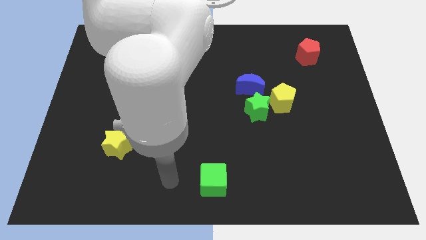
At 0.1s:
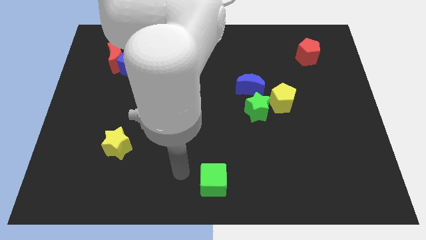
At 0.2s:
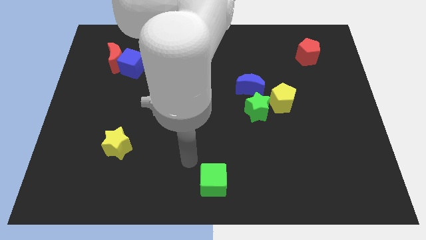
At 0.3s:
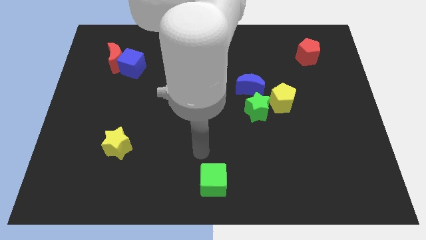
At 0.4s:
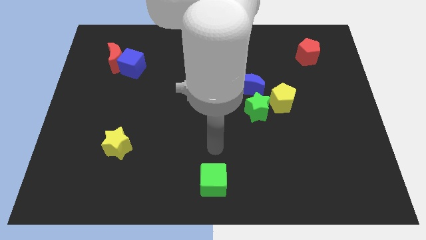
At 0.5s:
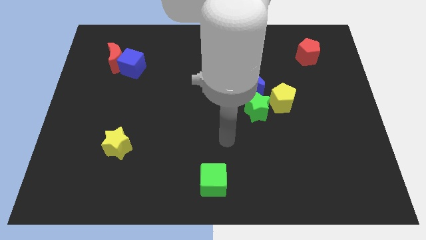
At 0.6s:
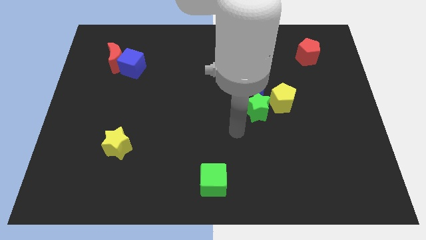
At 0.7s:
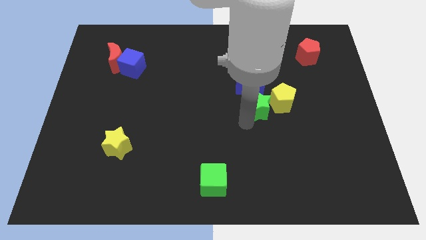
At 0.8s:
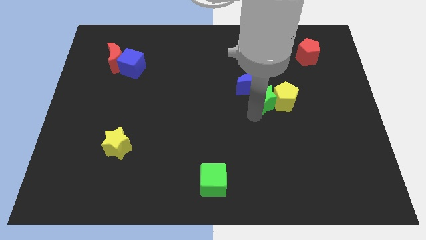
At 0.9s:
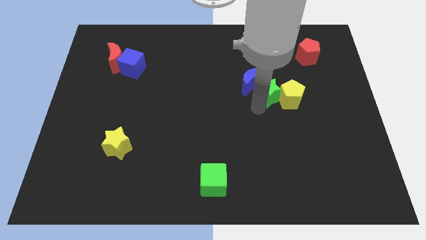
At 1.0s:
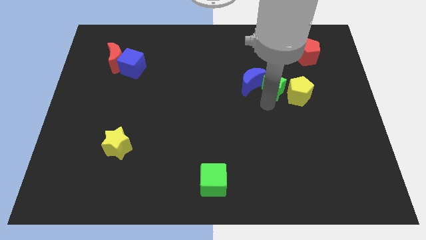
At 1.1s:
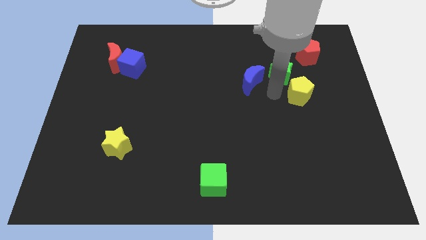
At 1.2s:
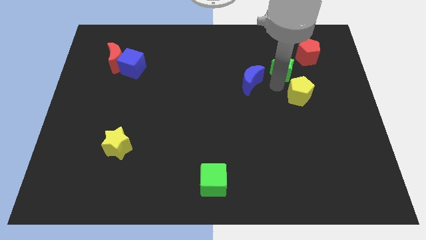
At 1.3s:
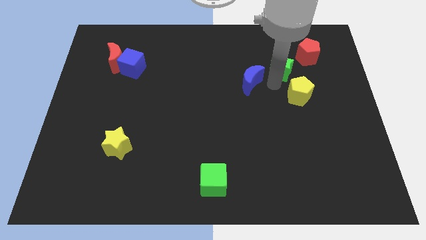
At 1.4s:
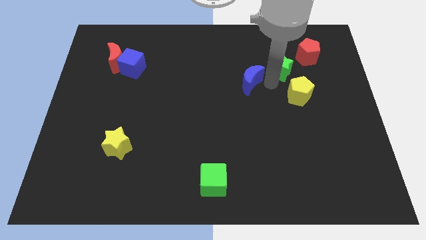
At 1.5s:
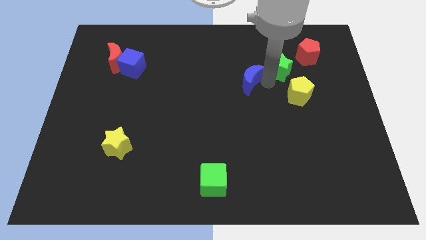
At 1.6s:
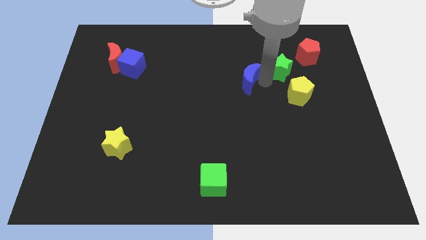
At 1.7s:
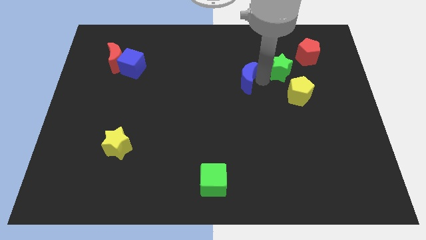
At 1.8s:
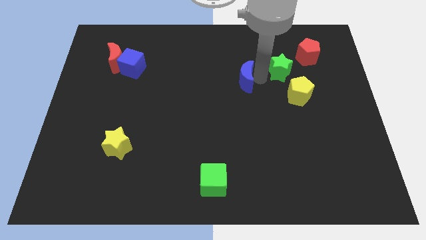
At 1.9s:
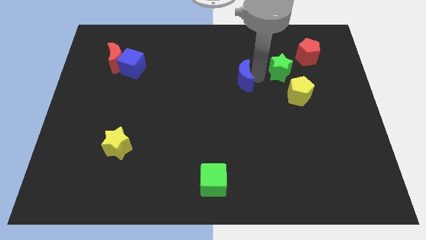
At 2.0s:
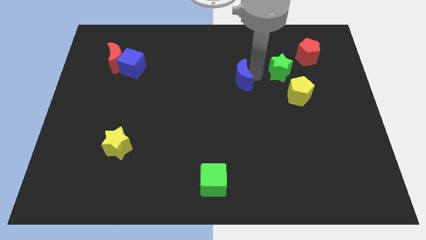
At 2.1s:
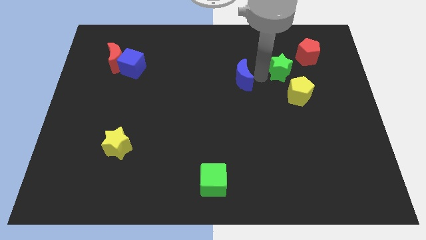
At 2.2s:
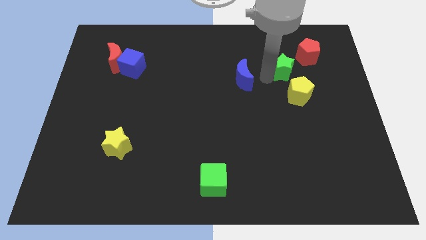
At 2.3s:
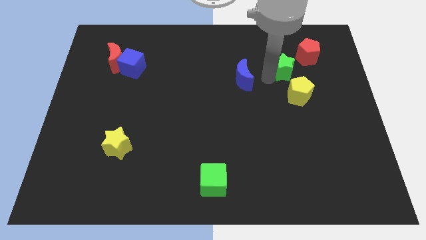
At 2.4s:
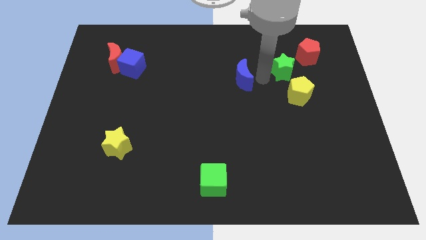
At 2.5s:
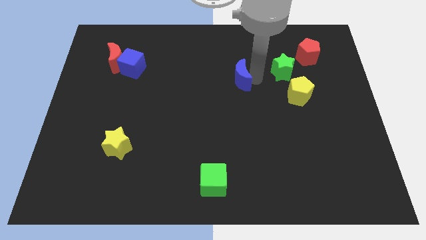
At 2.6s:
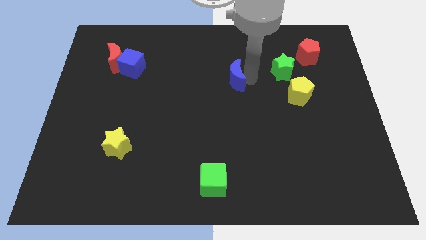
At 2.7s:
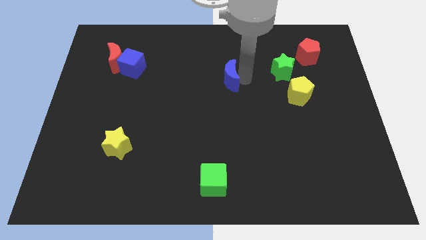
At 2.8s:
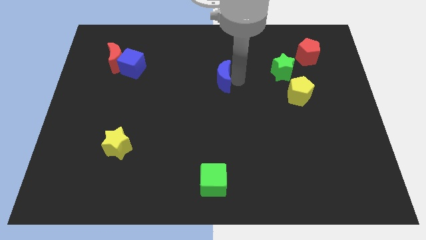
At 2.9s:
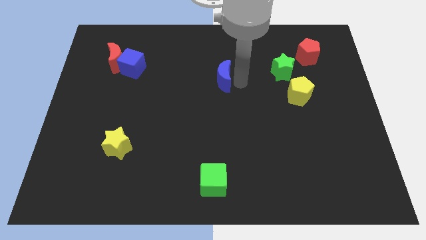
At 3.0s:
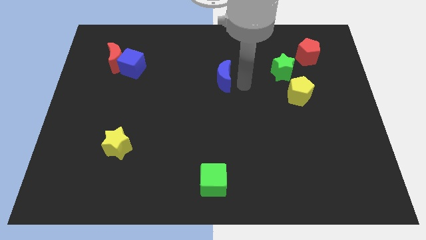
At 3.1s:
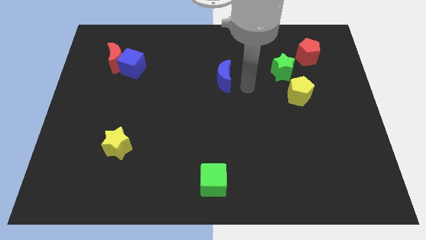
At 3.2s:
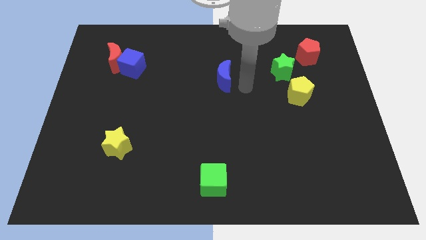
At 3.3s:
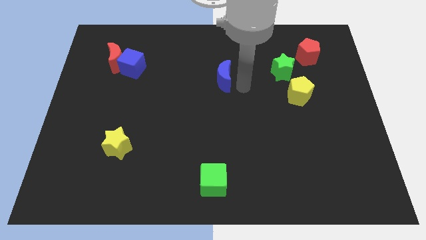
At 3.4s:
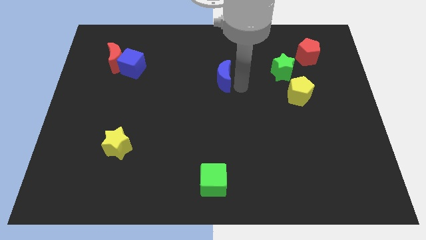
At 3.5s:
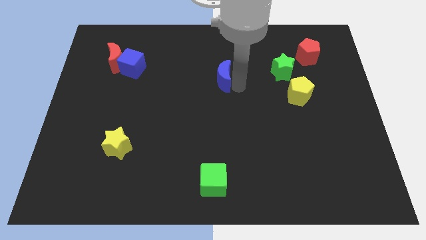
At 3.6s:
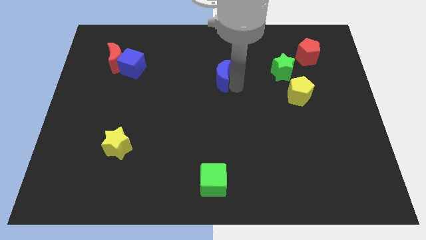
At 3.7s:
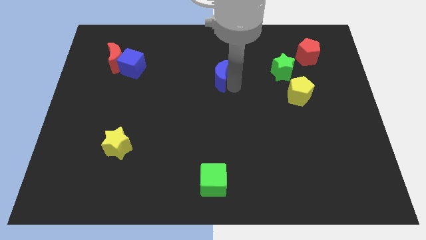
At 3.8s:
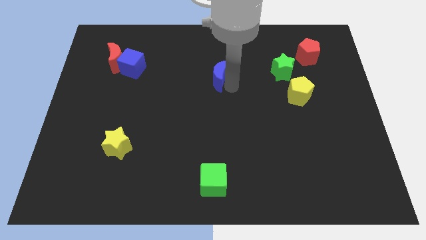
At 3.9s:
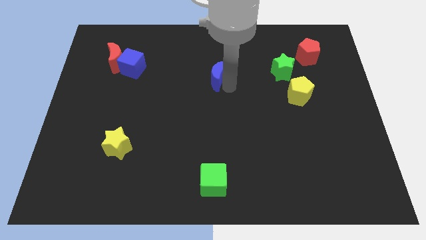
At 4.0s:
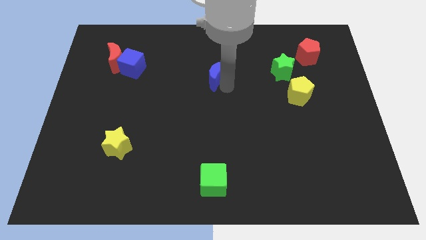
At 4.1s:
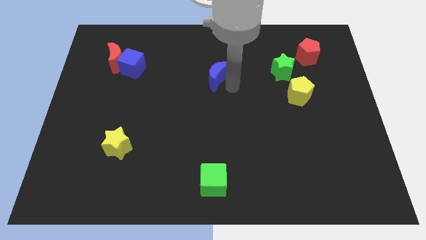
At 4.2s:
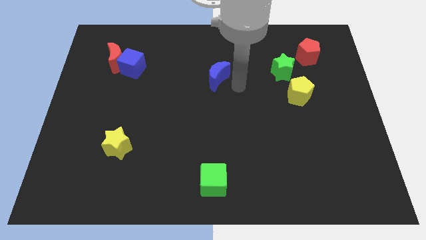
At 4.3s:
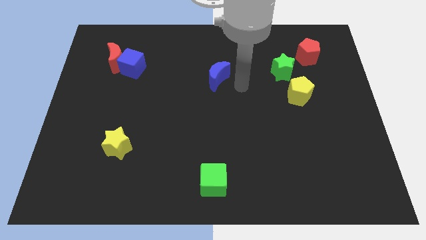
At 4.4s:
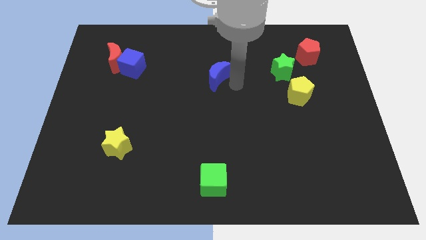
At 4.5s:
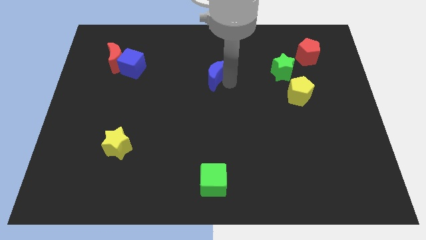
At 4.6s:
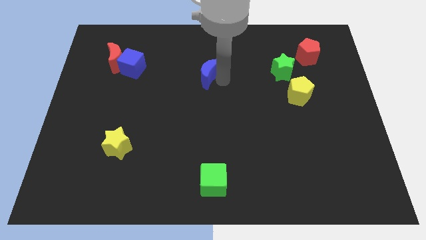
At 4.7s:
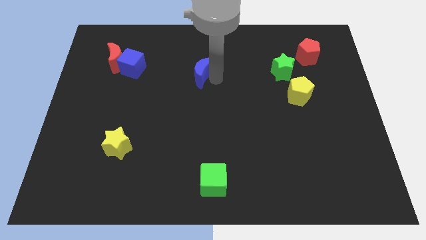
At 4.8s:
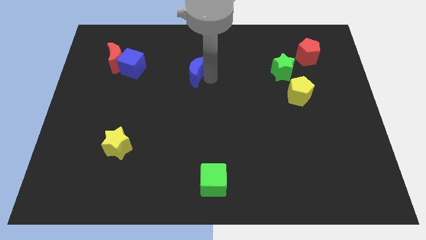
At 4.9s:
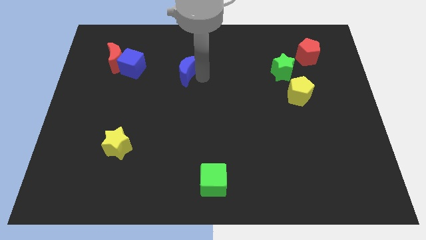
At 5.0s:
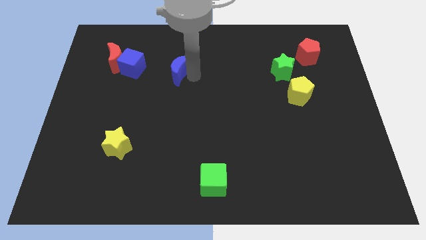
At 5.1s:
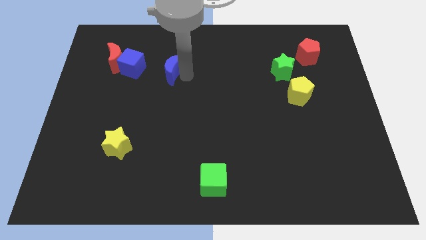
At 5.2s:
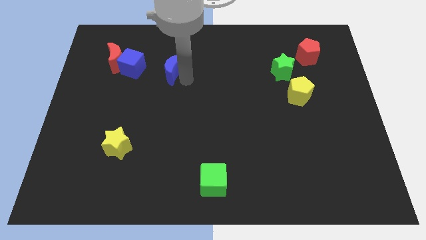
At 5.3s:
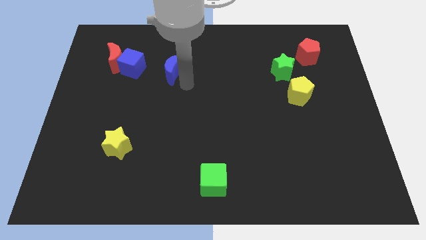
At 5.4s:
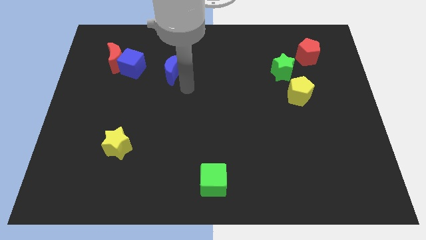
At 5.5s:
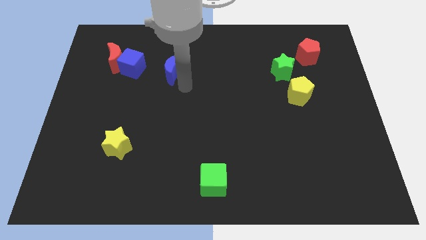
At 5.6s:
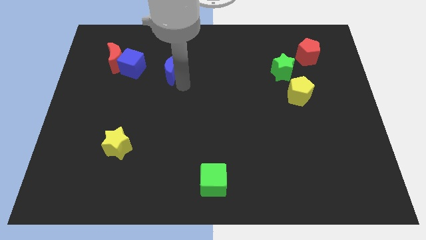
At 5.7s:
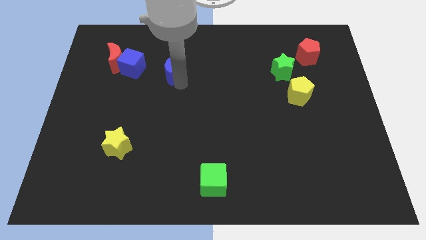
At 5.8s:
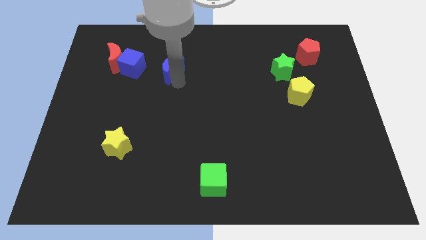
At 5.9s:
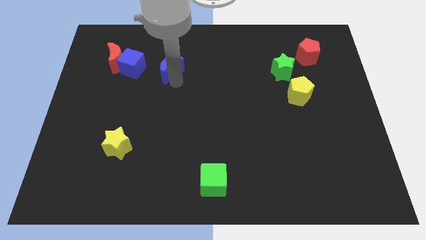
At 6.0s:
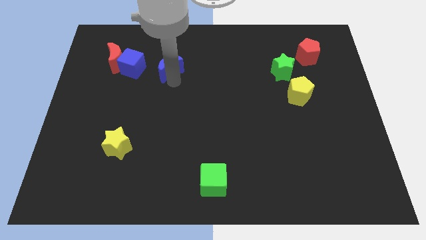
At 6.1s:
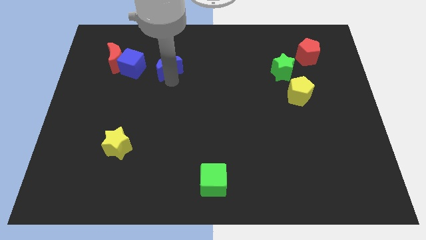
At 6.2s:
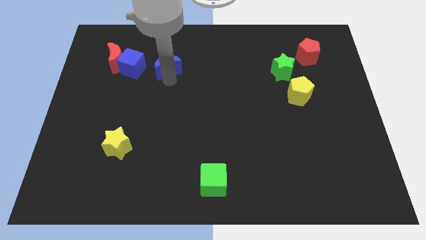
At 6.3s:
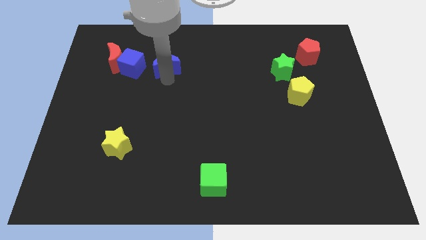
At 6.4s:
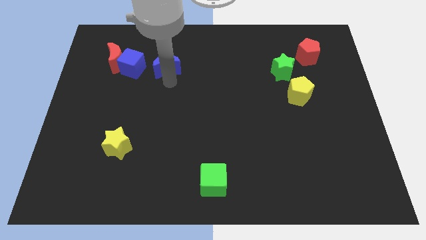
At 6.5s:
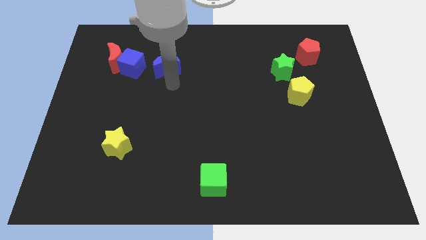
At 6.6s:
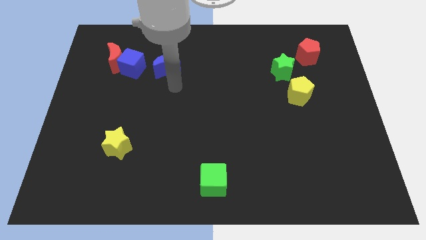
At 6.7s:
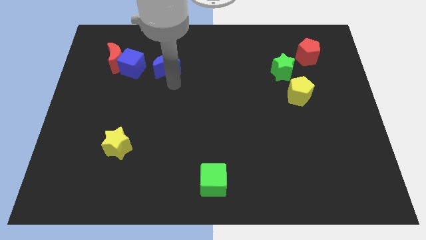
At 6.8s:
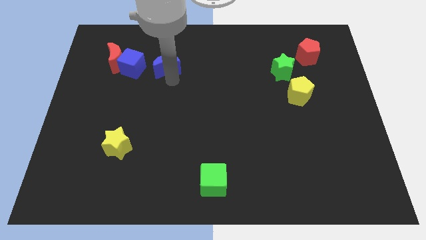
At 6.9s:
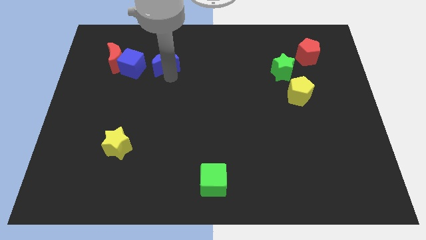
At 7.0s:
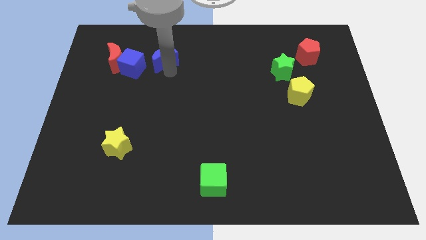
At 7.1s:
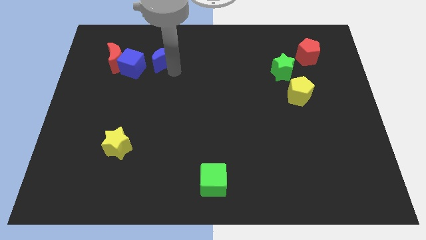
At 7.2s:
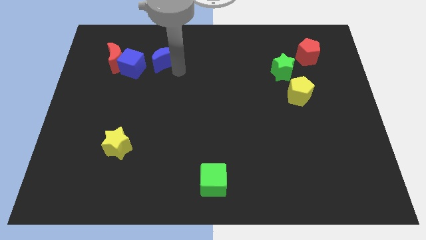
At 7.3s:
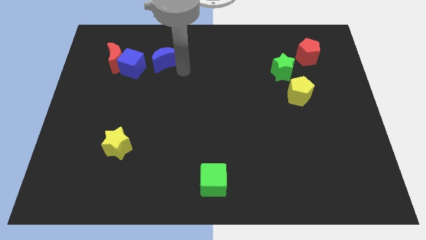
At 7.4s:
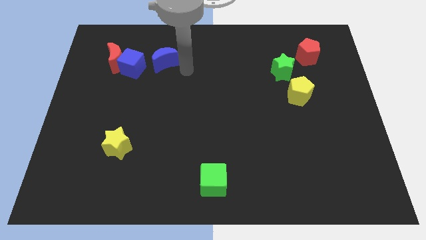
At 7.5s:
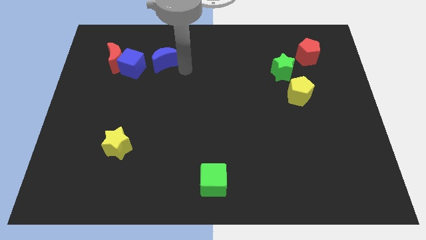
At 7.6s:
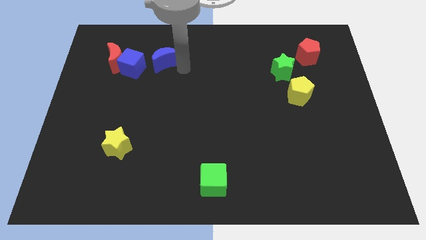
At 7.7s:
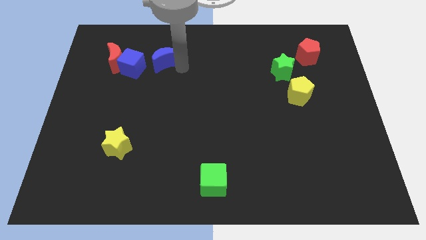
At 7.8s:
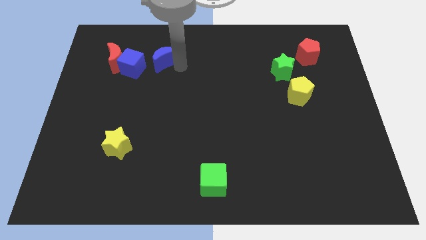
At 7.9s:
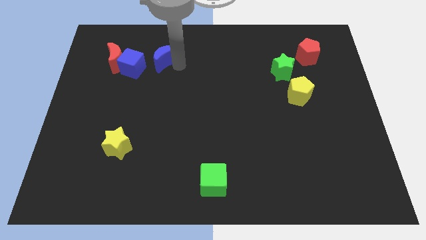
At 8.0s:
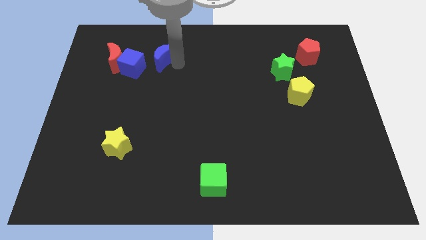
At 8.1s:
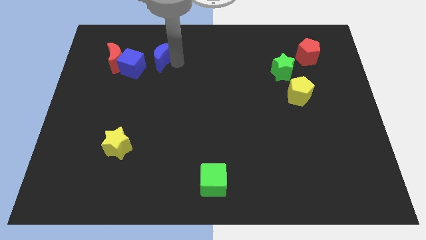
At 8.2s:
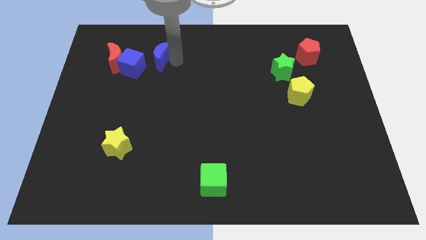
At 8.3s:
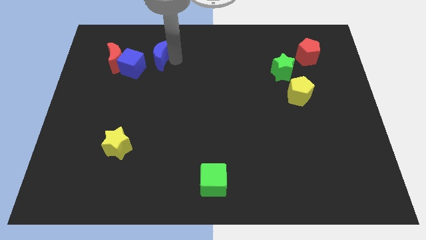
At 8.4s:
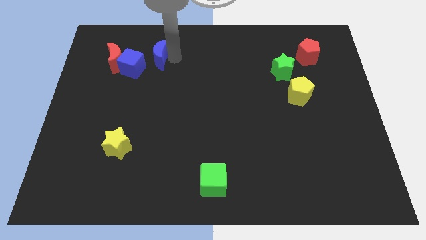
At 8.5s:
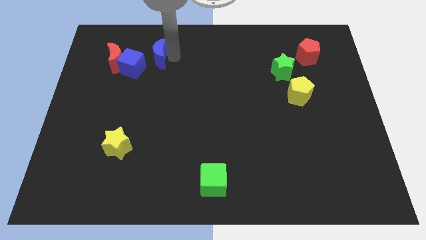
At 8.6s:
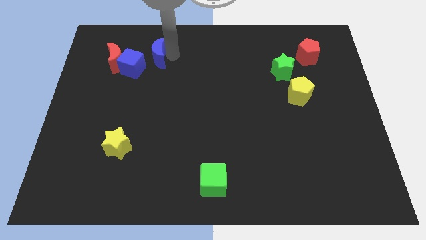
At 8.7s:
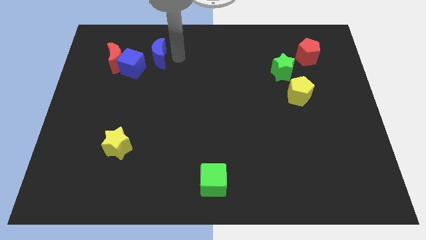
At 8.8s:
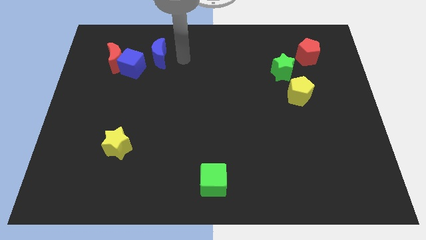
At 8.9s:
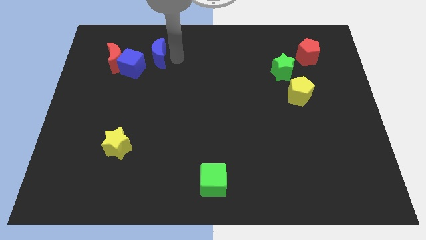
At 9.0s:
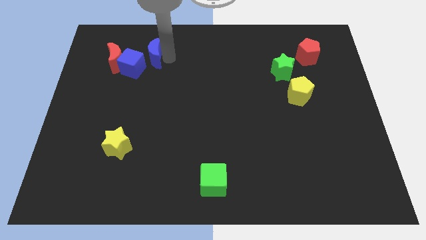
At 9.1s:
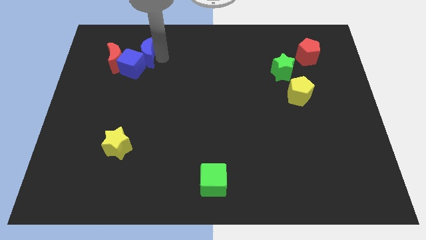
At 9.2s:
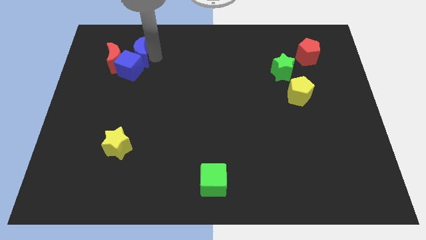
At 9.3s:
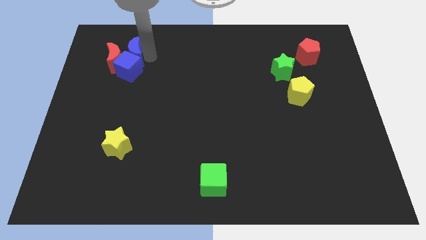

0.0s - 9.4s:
put the blue moon next to the red moon
